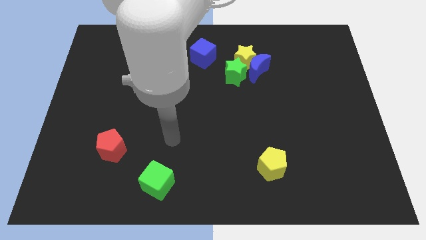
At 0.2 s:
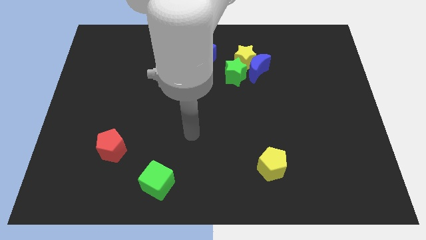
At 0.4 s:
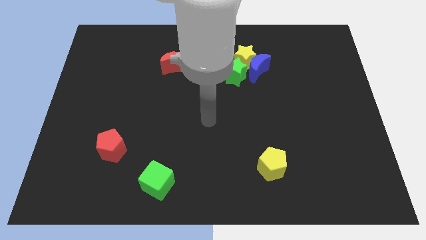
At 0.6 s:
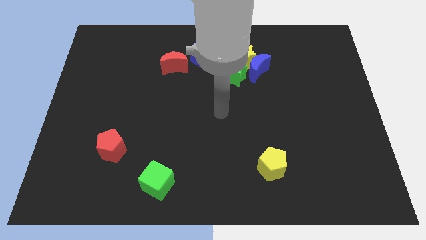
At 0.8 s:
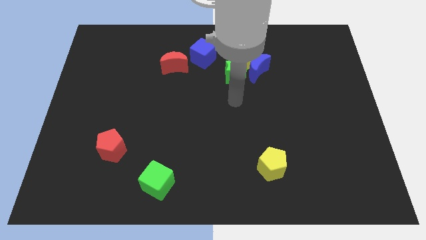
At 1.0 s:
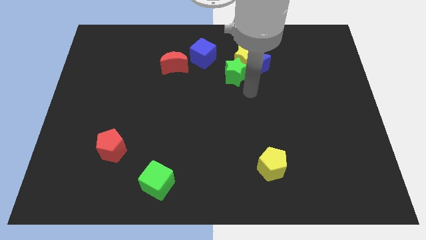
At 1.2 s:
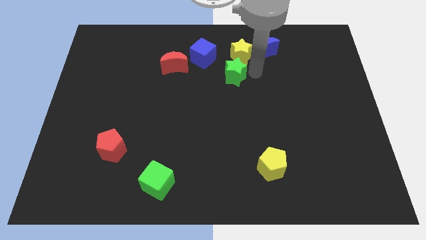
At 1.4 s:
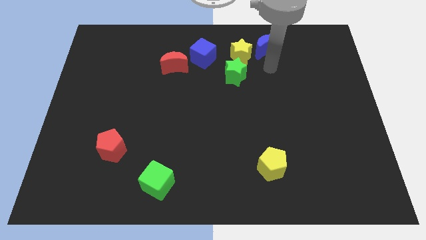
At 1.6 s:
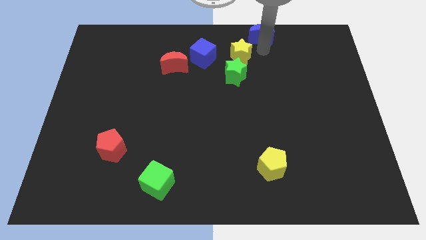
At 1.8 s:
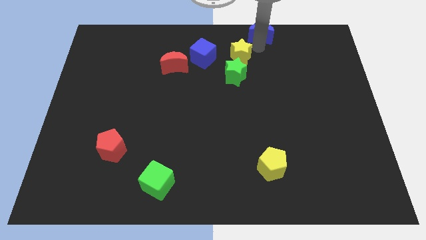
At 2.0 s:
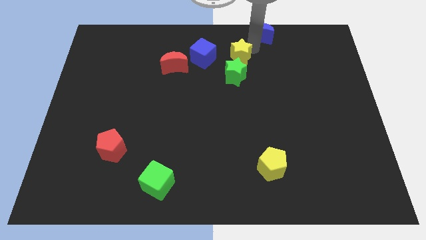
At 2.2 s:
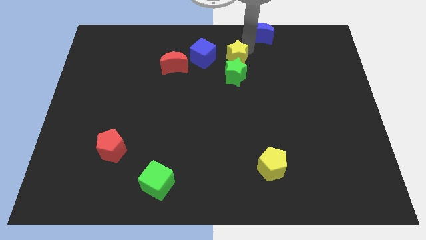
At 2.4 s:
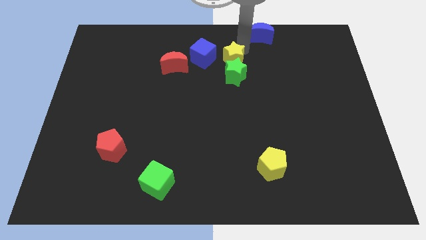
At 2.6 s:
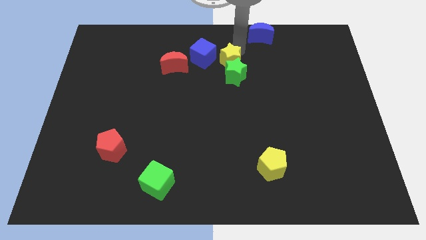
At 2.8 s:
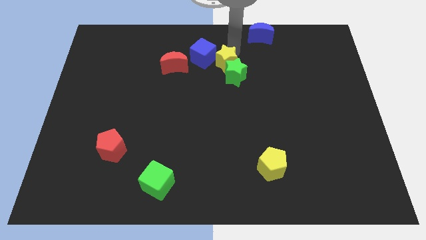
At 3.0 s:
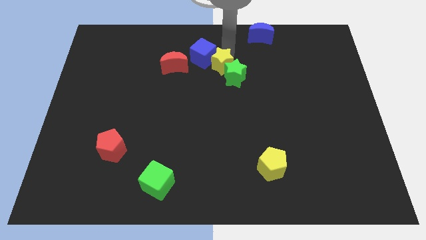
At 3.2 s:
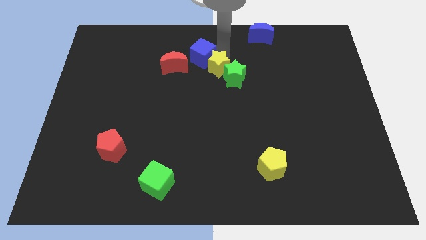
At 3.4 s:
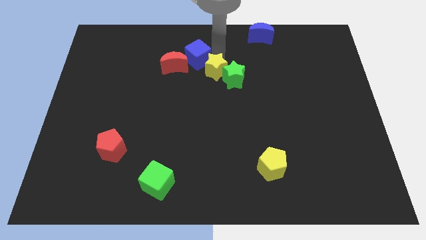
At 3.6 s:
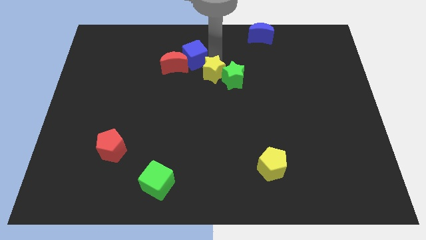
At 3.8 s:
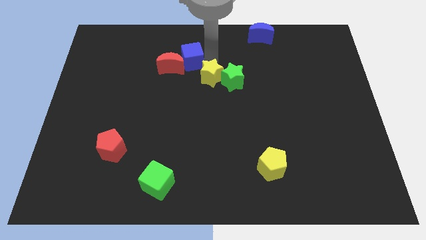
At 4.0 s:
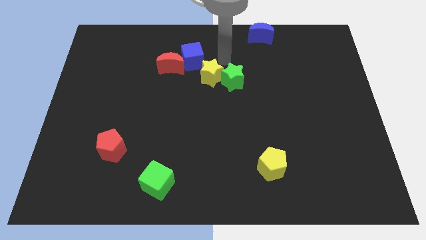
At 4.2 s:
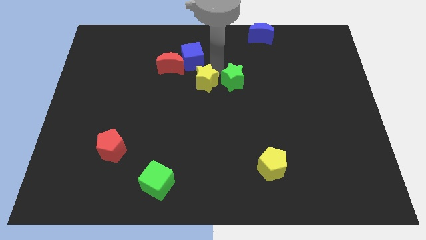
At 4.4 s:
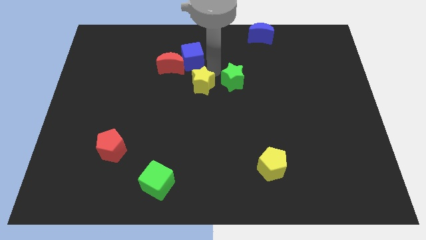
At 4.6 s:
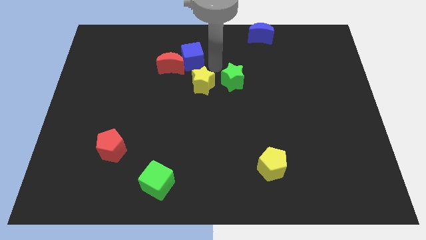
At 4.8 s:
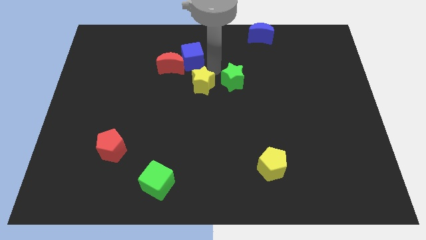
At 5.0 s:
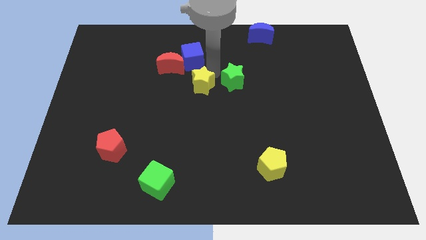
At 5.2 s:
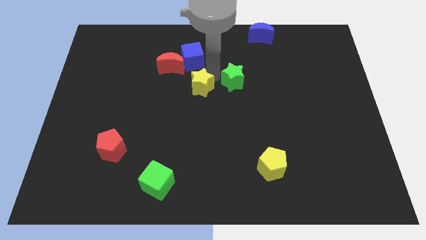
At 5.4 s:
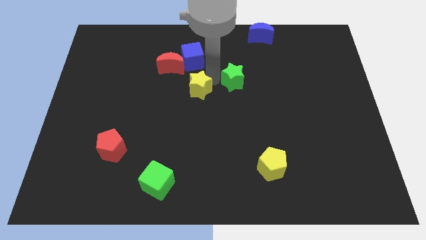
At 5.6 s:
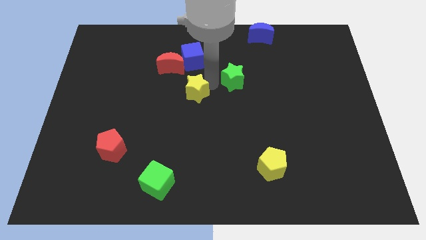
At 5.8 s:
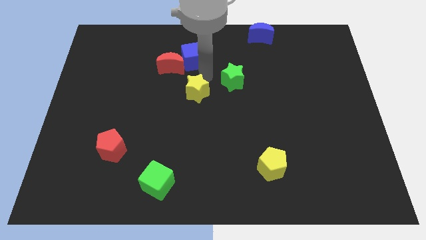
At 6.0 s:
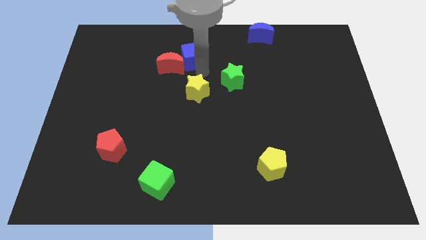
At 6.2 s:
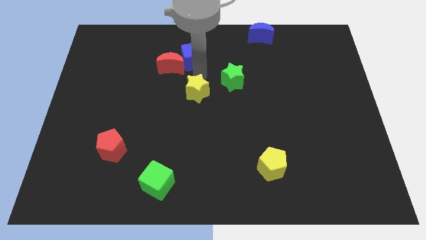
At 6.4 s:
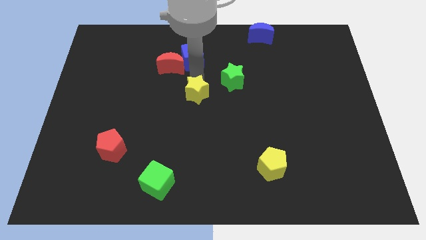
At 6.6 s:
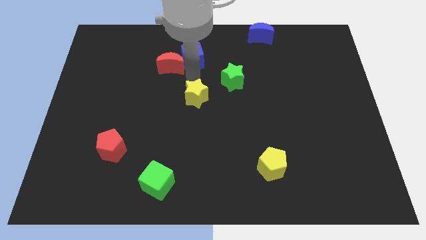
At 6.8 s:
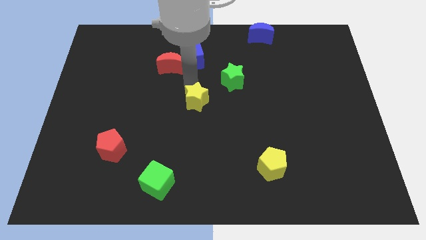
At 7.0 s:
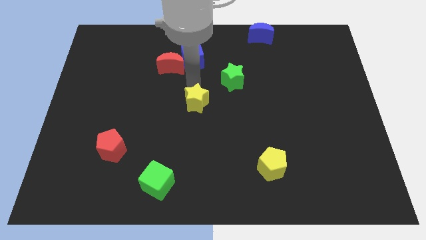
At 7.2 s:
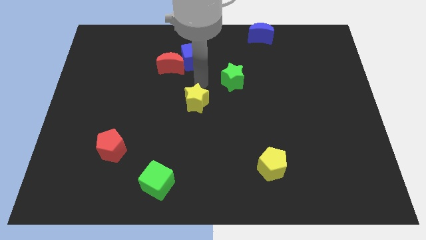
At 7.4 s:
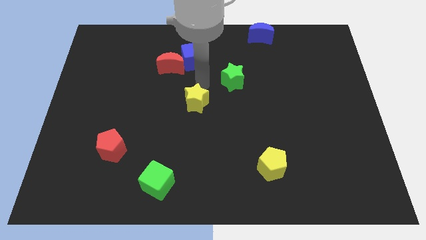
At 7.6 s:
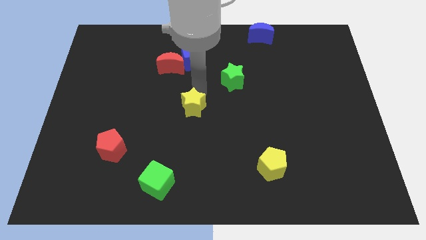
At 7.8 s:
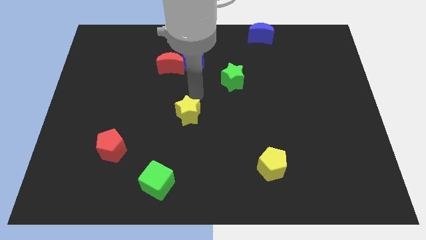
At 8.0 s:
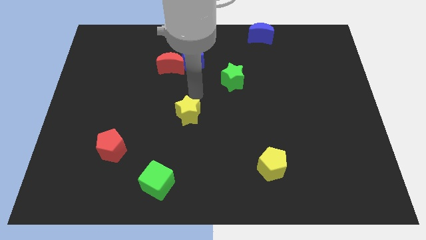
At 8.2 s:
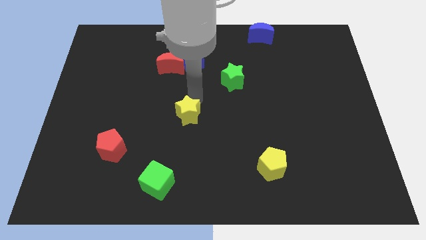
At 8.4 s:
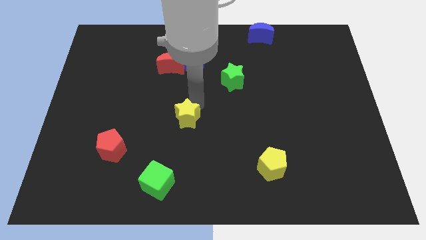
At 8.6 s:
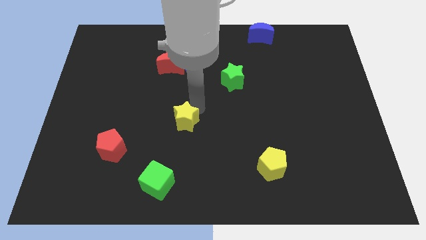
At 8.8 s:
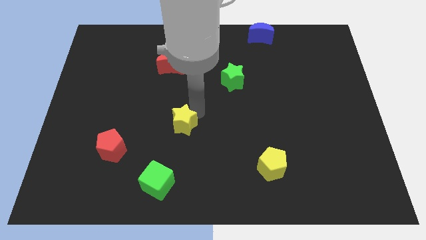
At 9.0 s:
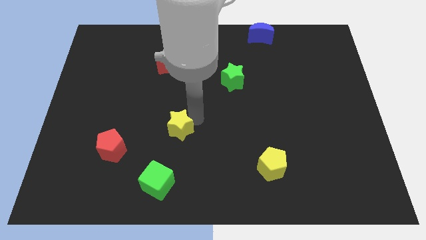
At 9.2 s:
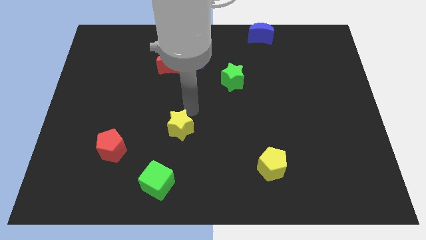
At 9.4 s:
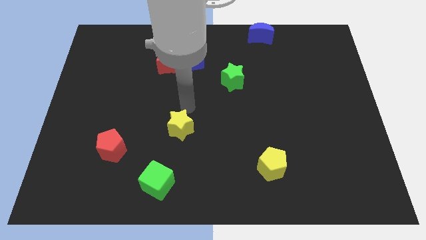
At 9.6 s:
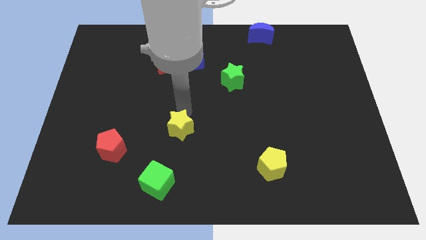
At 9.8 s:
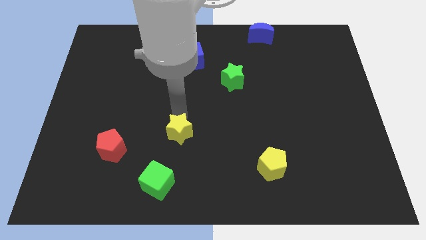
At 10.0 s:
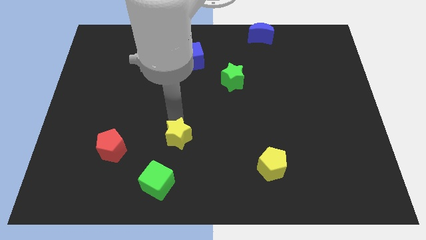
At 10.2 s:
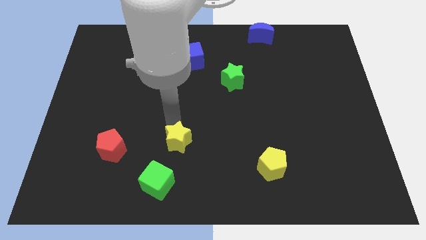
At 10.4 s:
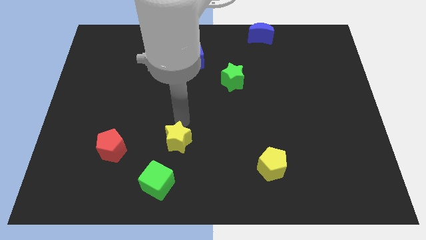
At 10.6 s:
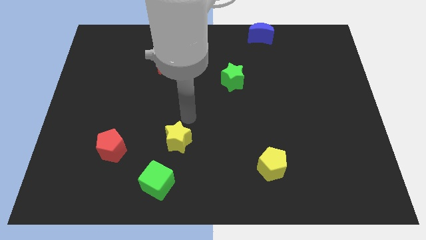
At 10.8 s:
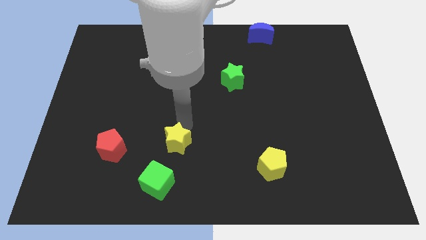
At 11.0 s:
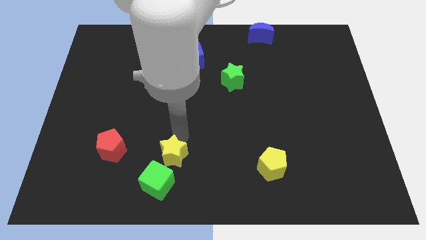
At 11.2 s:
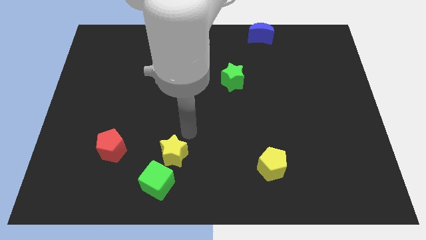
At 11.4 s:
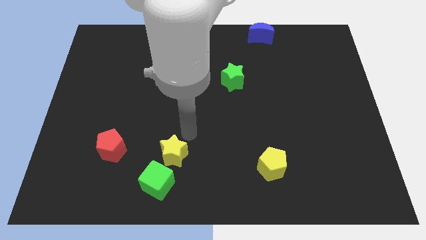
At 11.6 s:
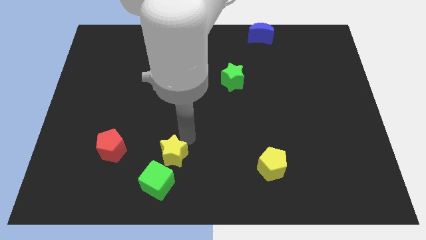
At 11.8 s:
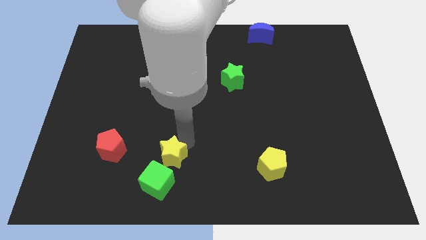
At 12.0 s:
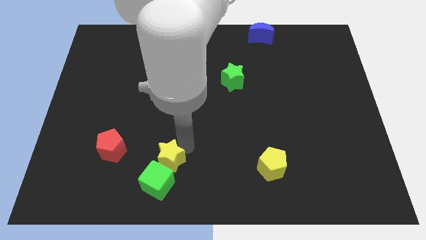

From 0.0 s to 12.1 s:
slide the yellow star close to the green cube

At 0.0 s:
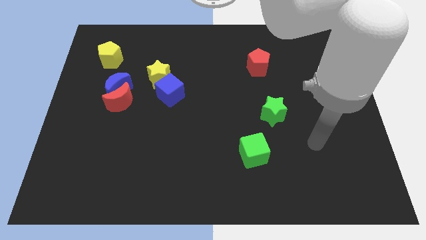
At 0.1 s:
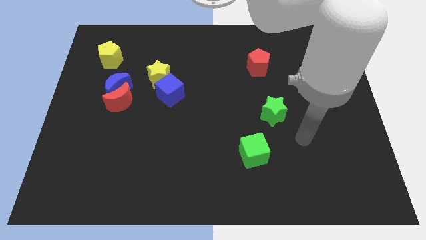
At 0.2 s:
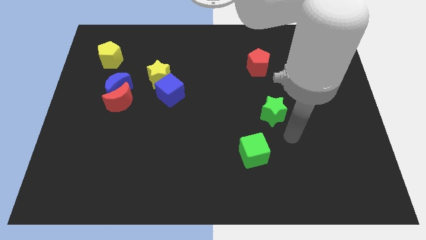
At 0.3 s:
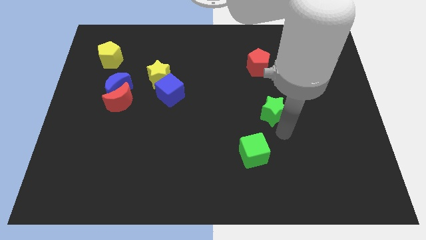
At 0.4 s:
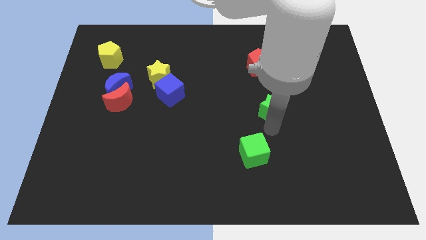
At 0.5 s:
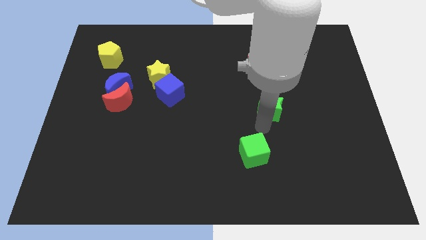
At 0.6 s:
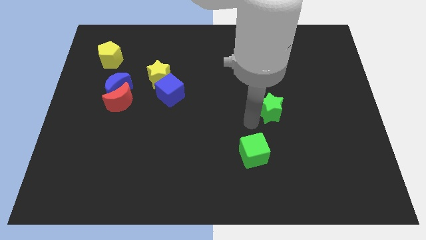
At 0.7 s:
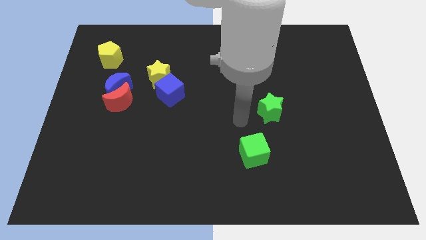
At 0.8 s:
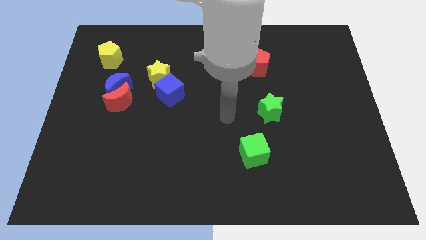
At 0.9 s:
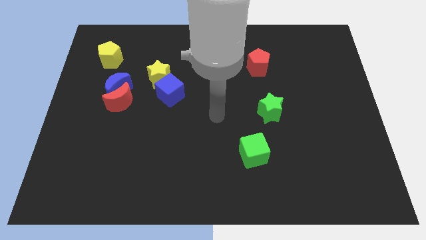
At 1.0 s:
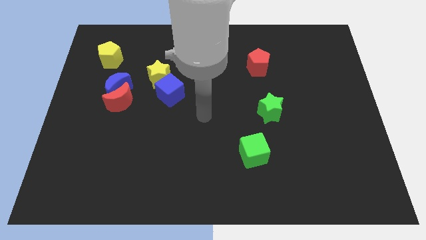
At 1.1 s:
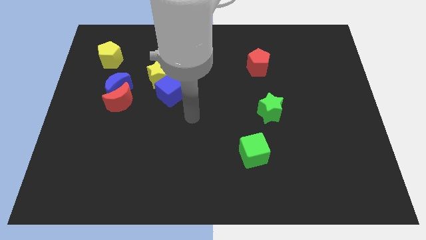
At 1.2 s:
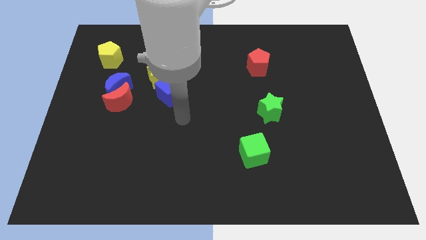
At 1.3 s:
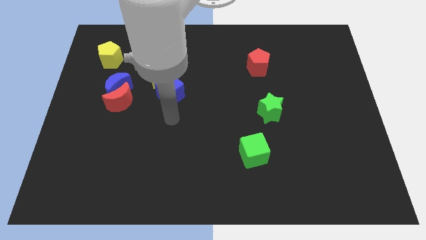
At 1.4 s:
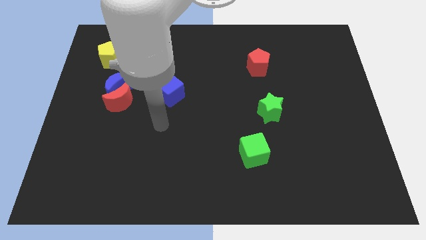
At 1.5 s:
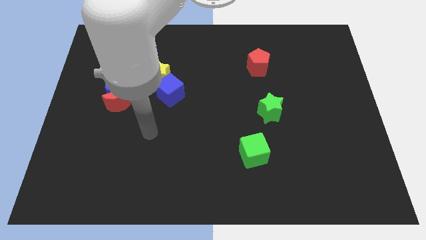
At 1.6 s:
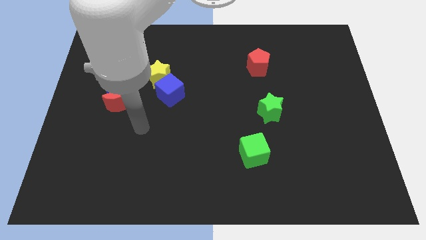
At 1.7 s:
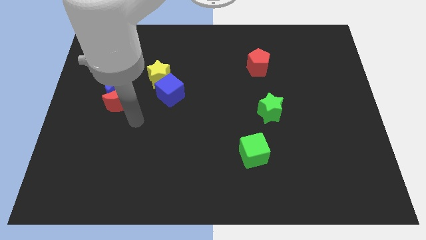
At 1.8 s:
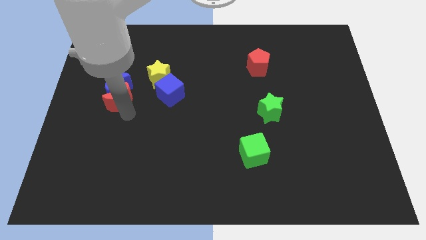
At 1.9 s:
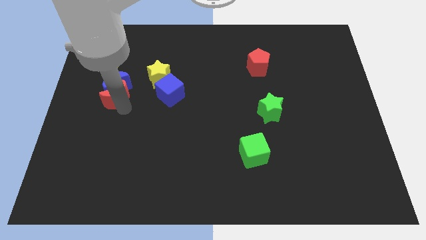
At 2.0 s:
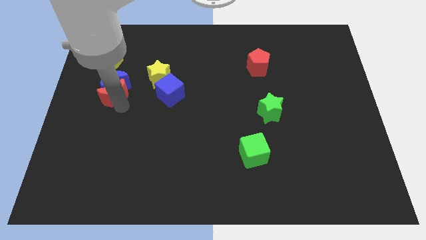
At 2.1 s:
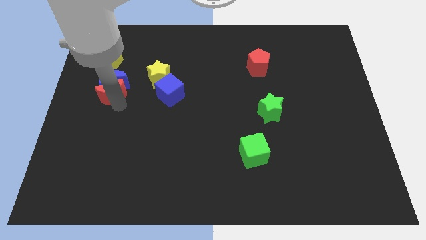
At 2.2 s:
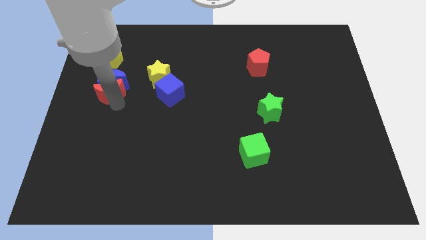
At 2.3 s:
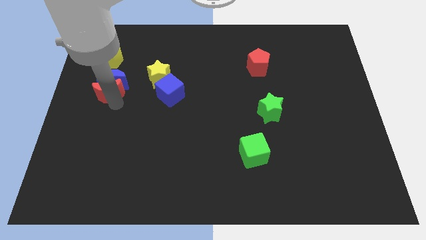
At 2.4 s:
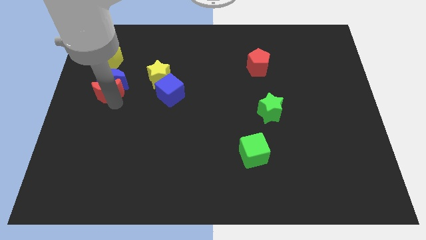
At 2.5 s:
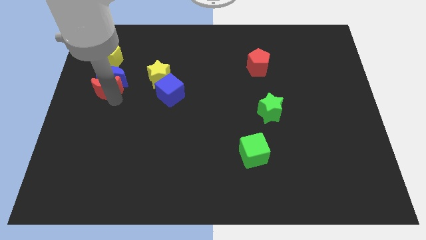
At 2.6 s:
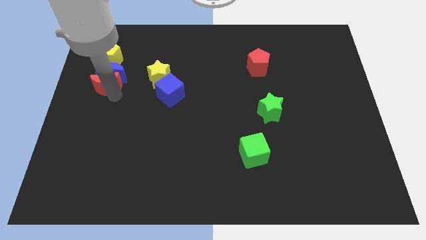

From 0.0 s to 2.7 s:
push the blue moon to the yellow pentagon
